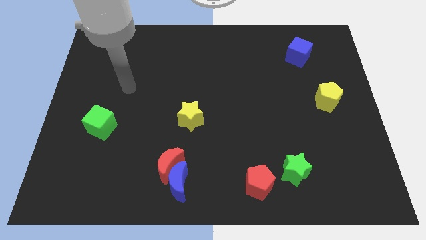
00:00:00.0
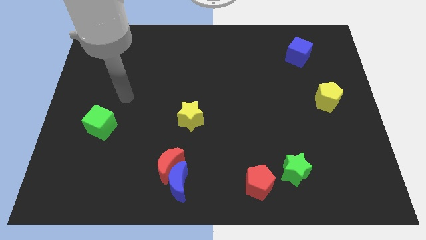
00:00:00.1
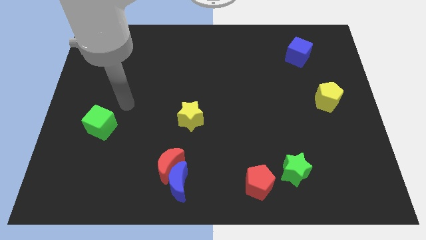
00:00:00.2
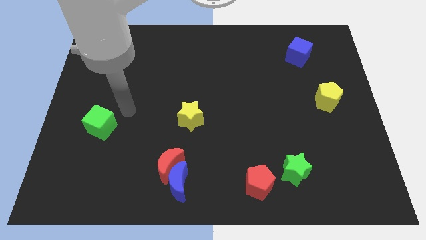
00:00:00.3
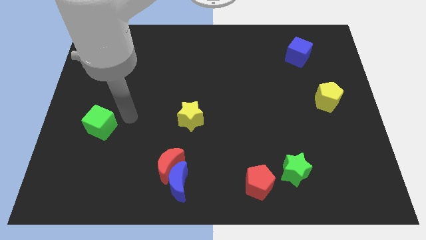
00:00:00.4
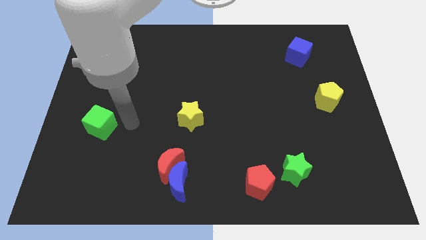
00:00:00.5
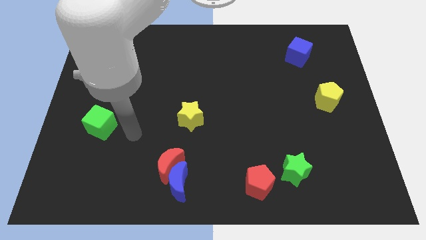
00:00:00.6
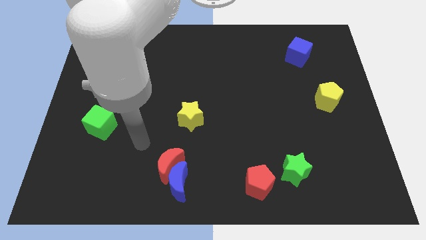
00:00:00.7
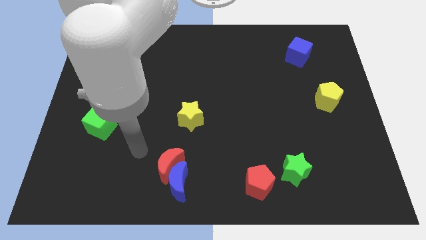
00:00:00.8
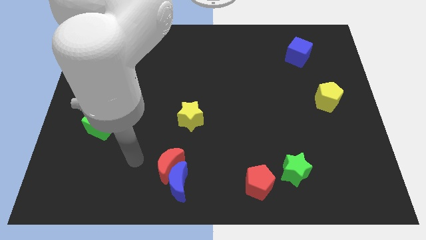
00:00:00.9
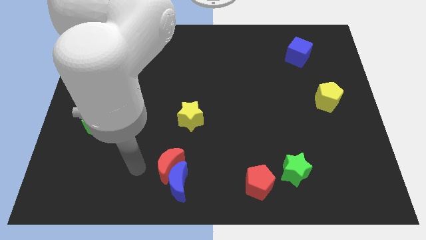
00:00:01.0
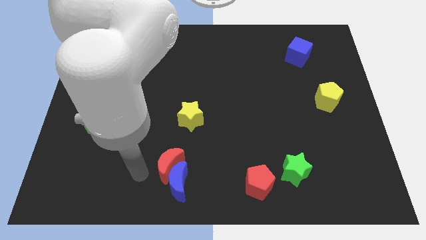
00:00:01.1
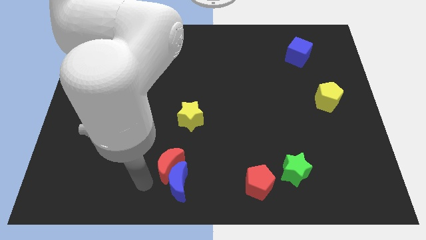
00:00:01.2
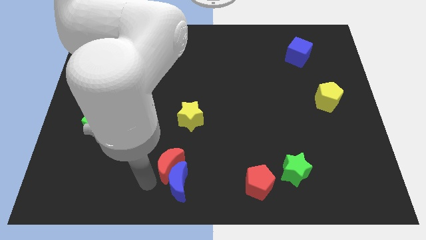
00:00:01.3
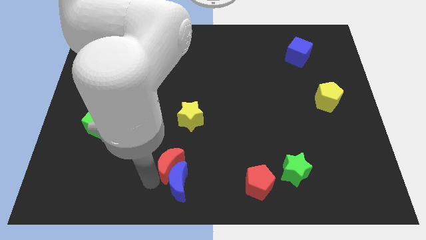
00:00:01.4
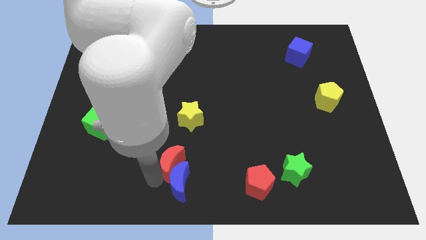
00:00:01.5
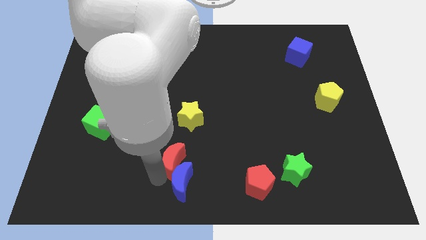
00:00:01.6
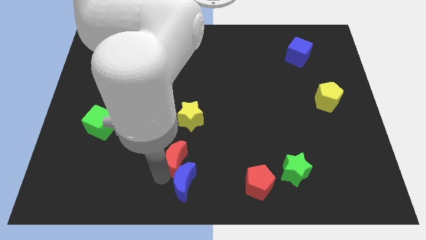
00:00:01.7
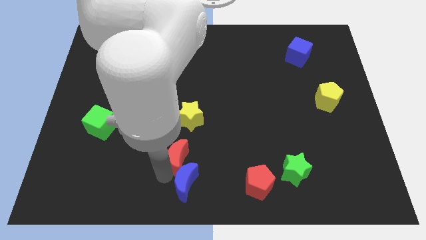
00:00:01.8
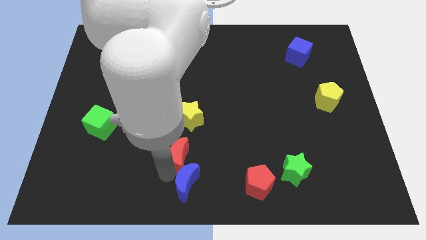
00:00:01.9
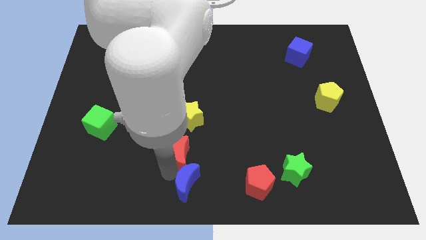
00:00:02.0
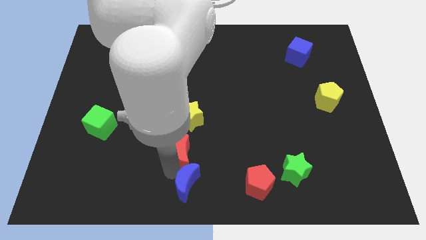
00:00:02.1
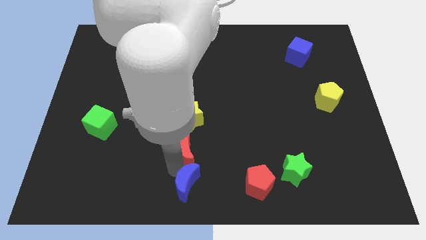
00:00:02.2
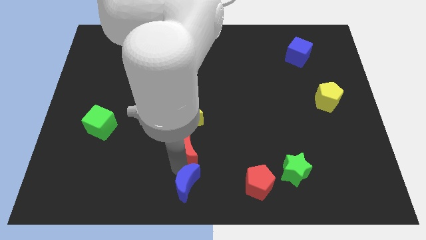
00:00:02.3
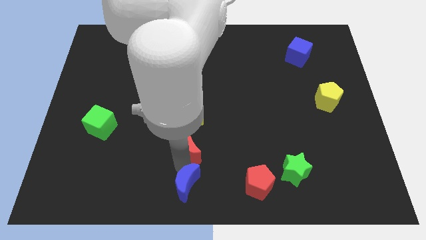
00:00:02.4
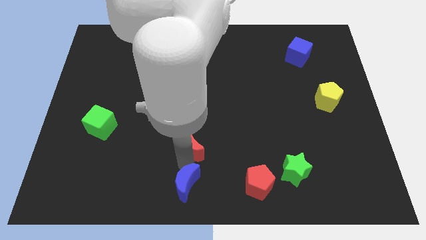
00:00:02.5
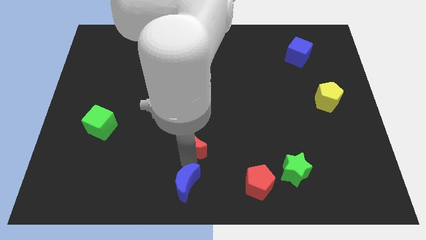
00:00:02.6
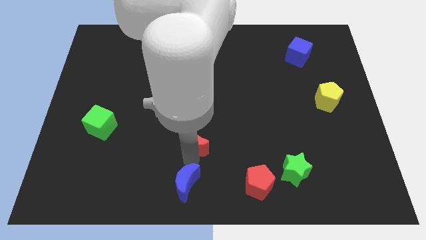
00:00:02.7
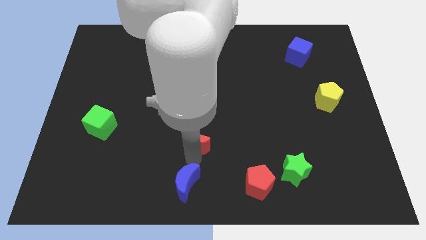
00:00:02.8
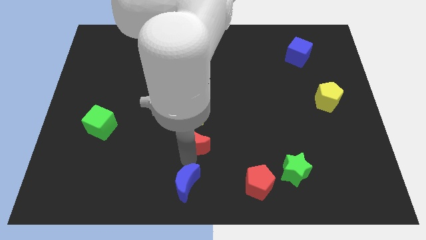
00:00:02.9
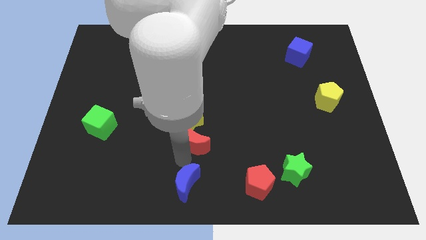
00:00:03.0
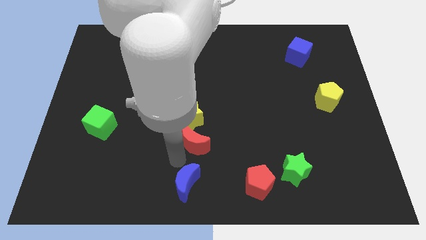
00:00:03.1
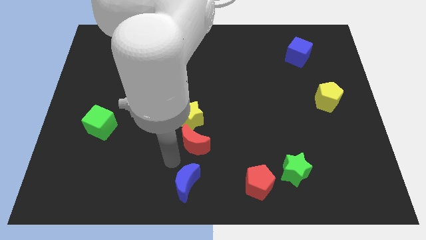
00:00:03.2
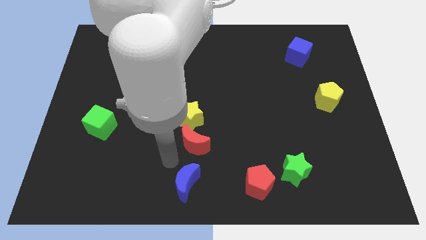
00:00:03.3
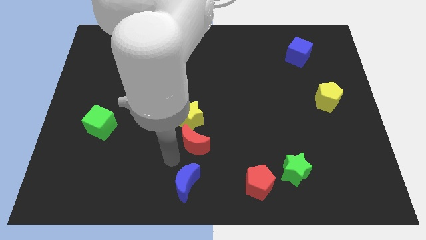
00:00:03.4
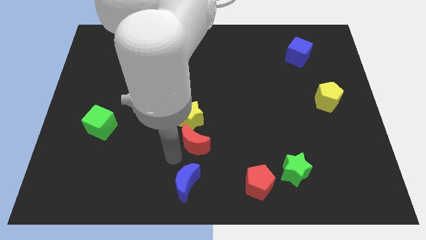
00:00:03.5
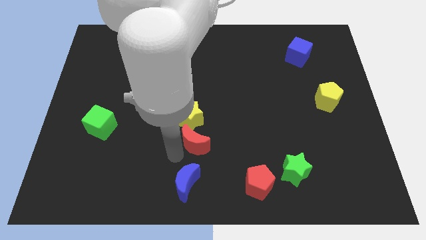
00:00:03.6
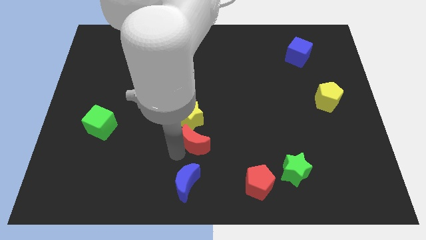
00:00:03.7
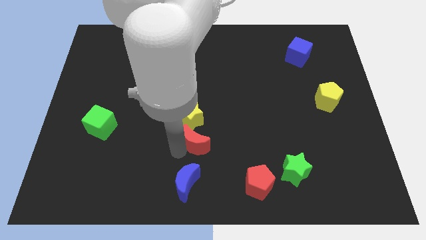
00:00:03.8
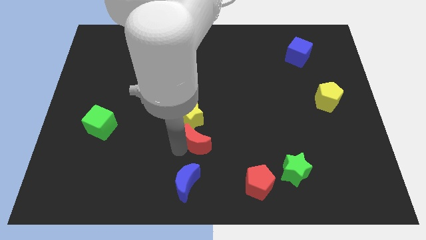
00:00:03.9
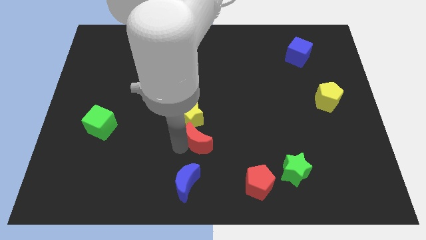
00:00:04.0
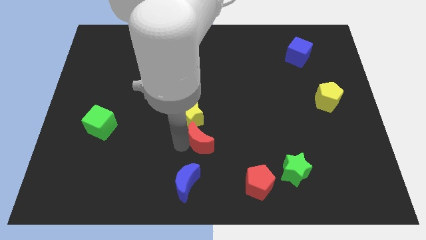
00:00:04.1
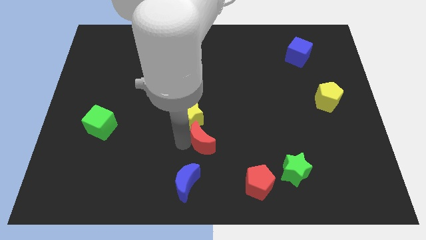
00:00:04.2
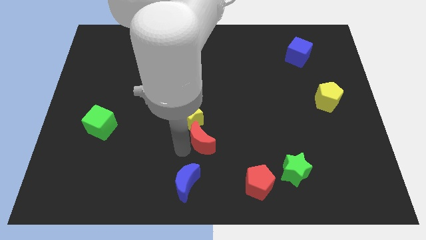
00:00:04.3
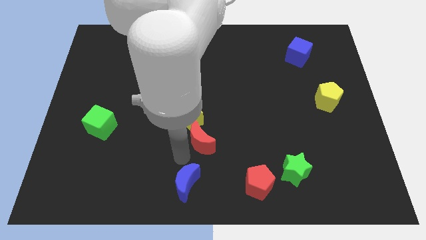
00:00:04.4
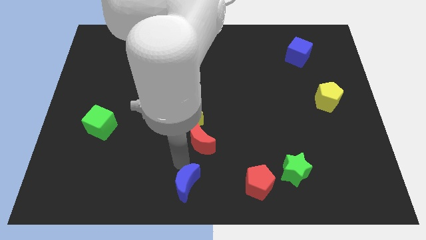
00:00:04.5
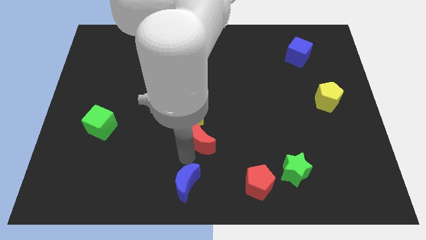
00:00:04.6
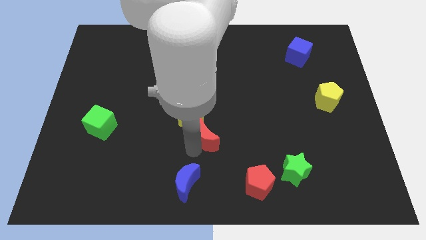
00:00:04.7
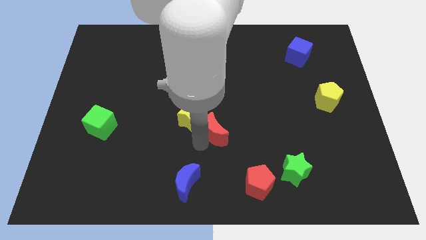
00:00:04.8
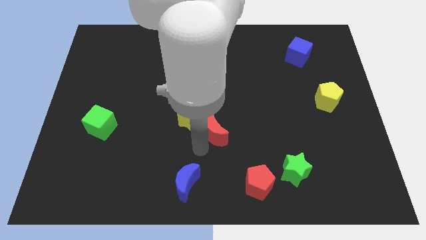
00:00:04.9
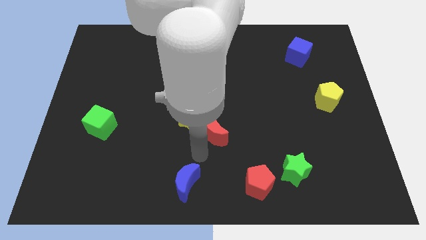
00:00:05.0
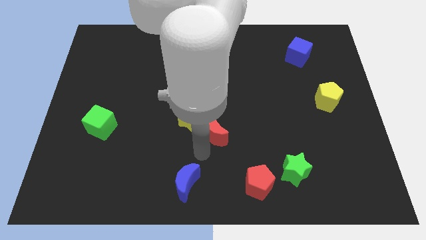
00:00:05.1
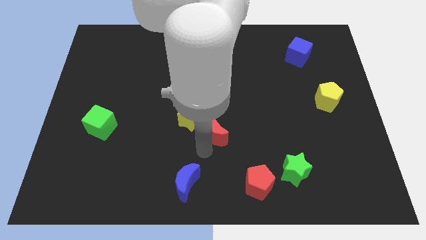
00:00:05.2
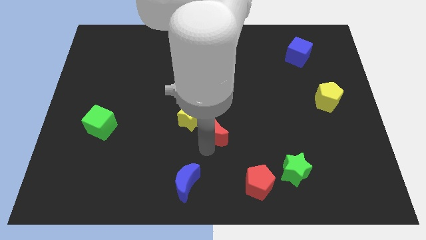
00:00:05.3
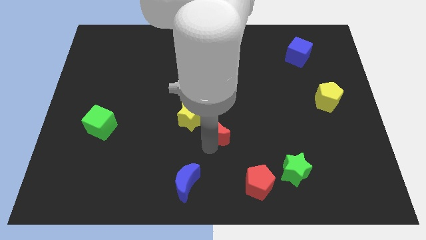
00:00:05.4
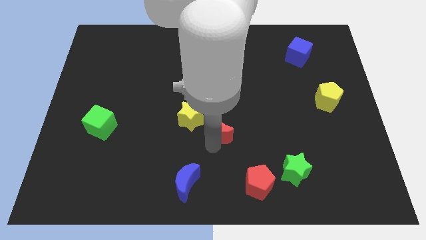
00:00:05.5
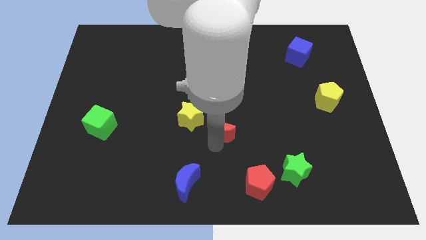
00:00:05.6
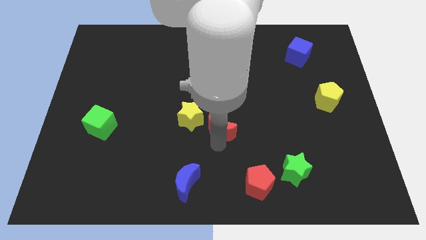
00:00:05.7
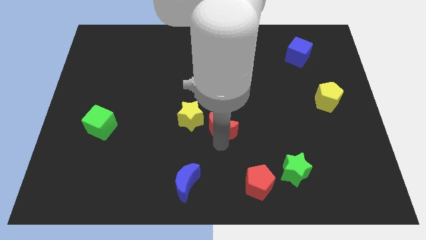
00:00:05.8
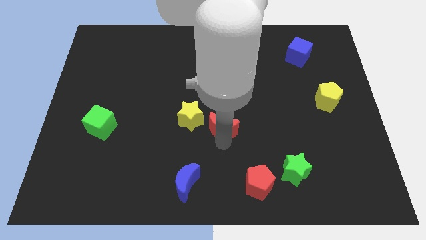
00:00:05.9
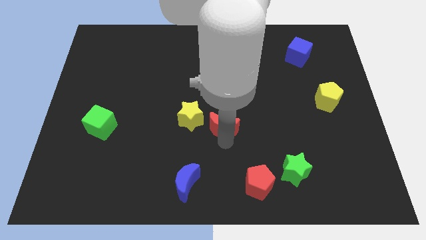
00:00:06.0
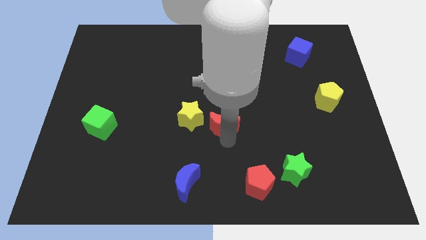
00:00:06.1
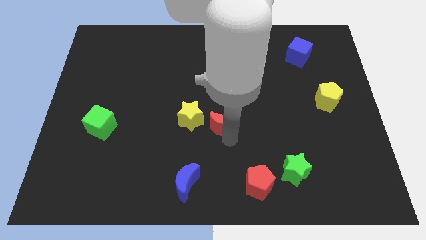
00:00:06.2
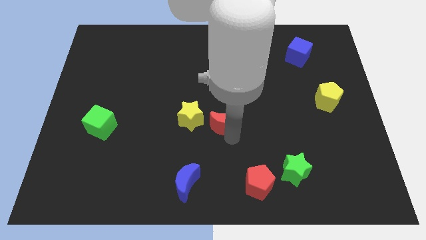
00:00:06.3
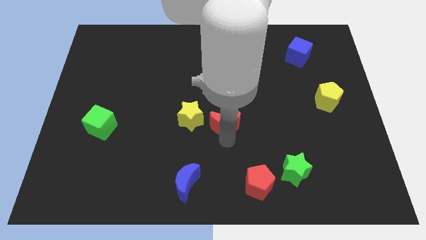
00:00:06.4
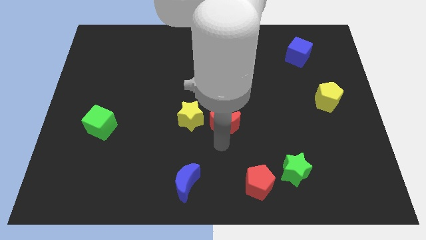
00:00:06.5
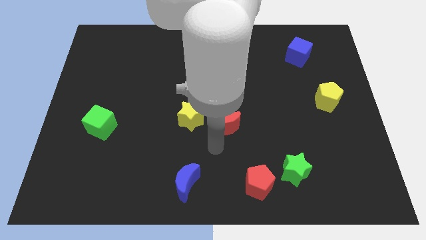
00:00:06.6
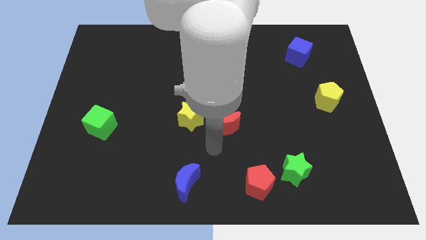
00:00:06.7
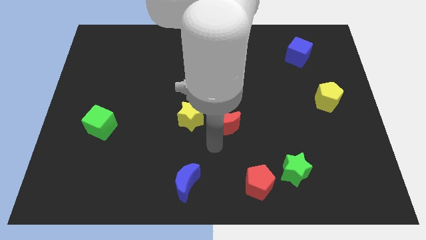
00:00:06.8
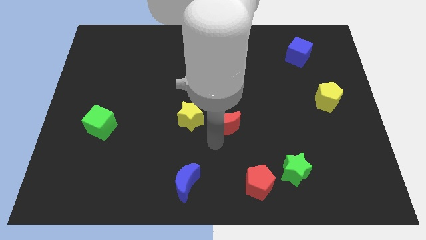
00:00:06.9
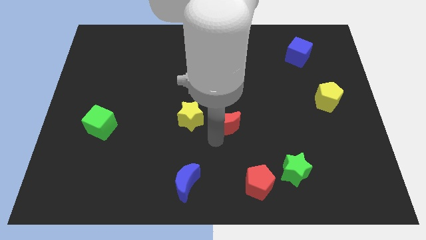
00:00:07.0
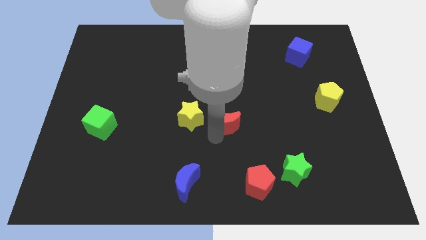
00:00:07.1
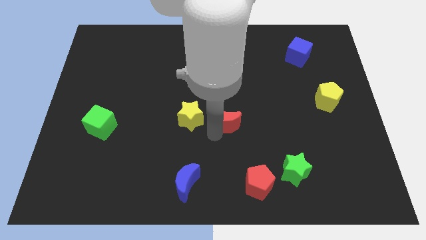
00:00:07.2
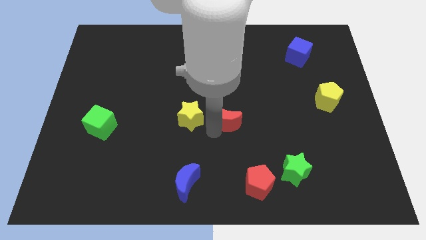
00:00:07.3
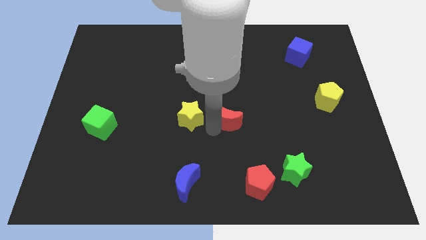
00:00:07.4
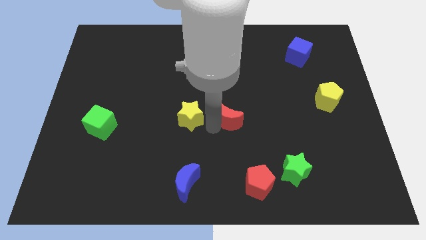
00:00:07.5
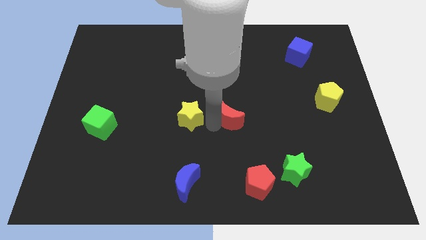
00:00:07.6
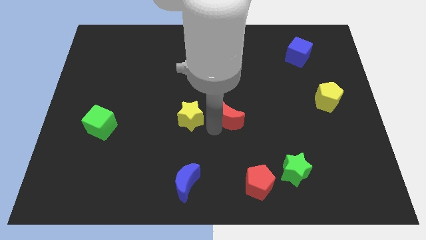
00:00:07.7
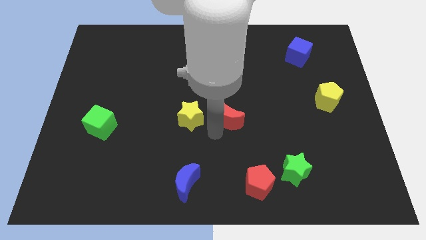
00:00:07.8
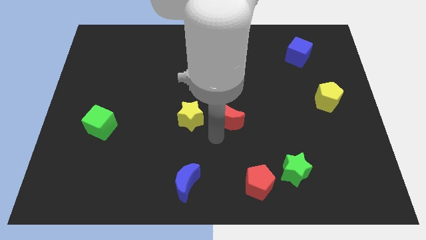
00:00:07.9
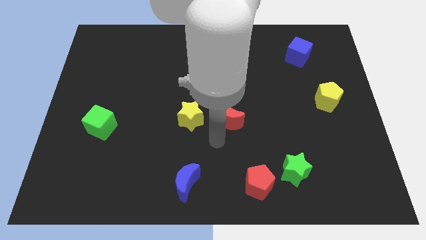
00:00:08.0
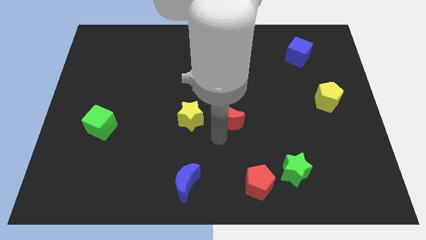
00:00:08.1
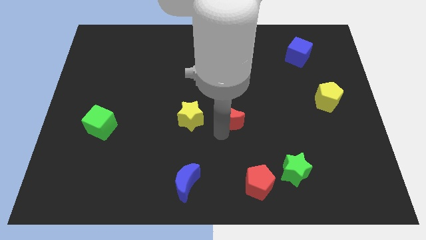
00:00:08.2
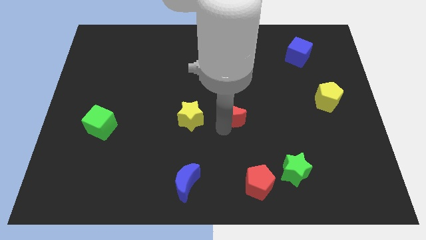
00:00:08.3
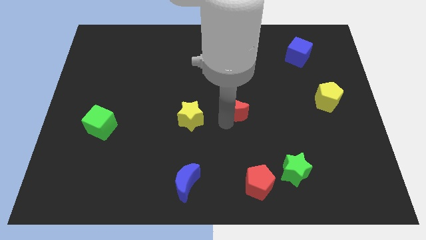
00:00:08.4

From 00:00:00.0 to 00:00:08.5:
move the red moon upwards and to the right
